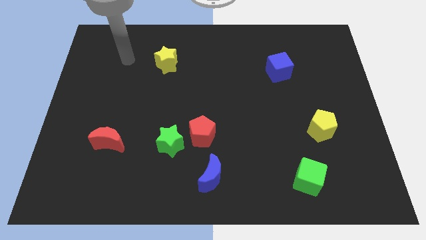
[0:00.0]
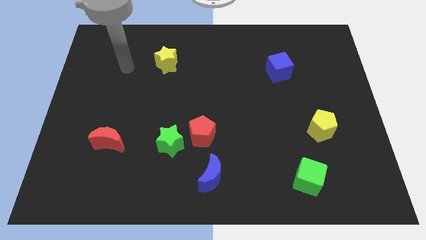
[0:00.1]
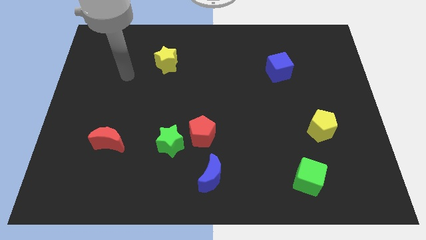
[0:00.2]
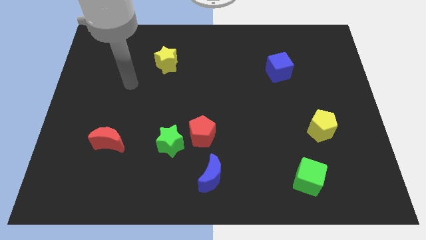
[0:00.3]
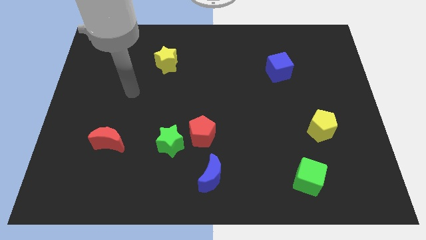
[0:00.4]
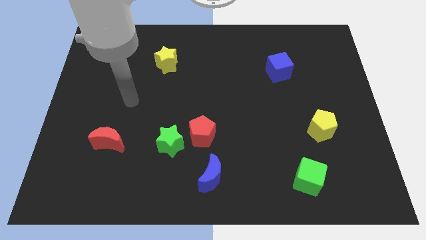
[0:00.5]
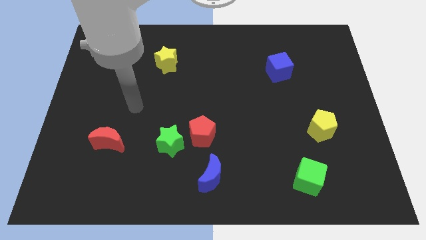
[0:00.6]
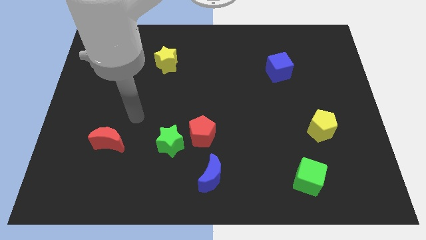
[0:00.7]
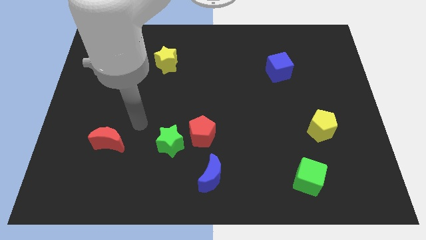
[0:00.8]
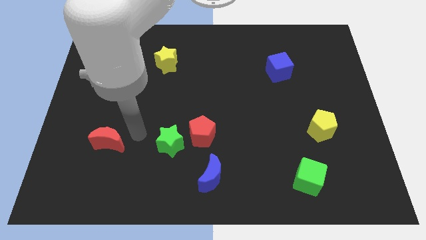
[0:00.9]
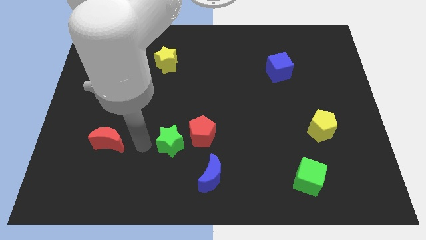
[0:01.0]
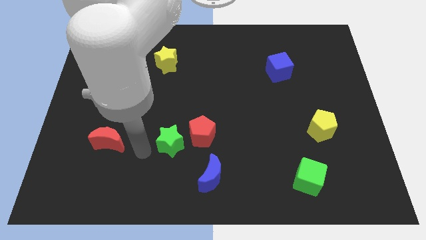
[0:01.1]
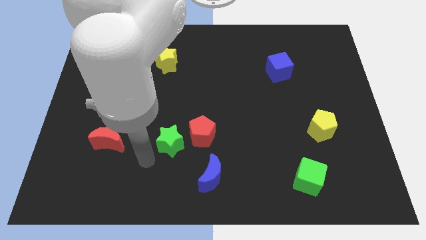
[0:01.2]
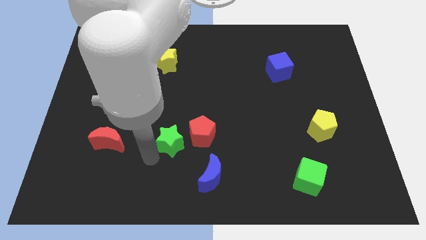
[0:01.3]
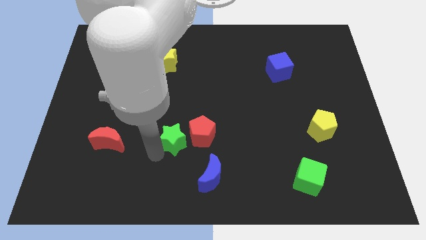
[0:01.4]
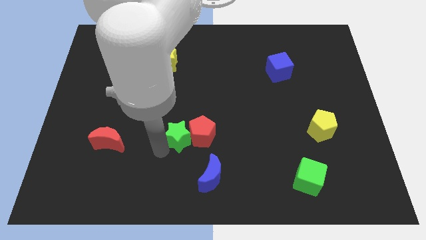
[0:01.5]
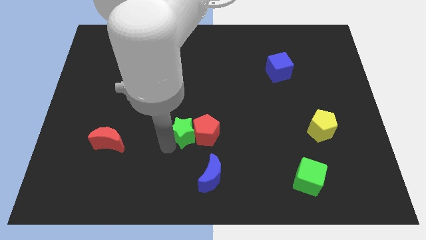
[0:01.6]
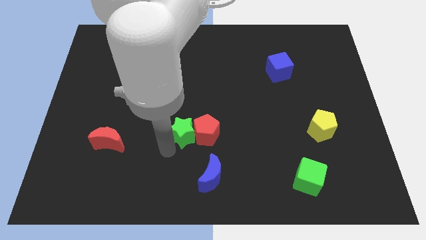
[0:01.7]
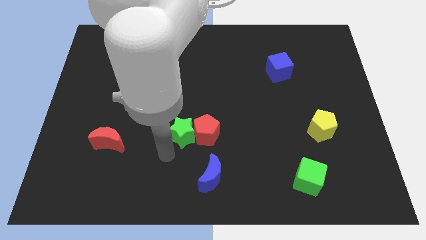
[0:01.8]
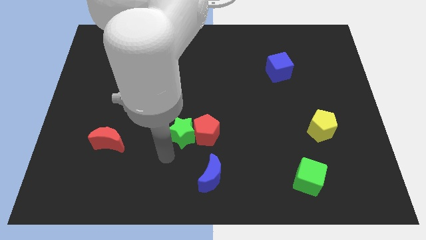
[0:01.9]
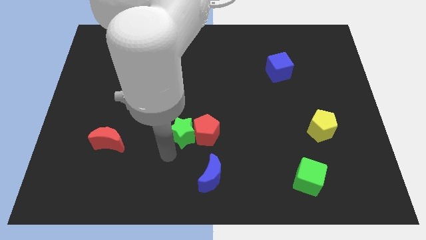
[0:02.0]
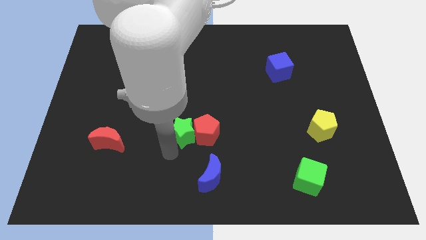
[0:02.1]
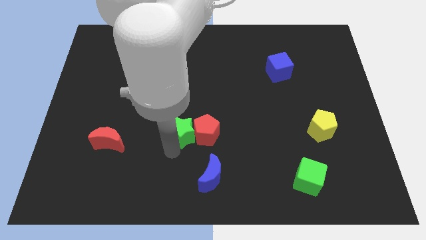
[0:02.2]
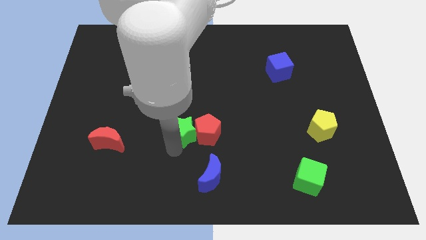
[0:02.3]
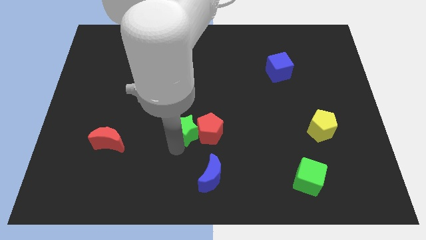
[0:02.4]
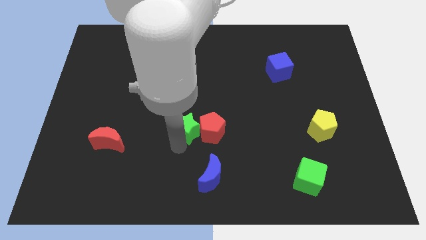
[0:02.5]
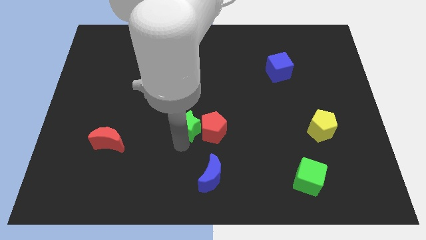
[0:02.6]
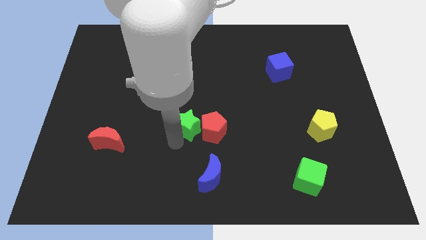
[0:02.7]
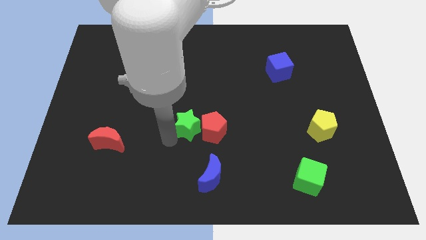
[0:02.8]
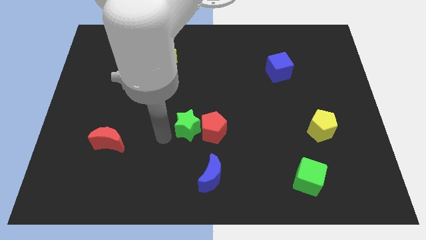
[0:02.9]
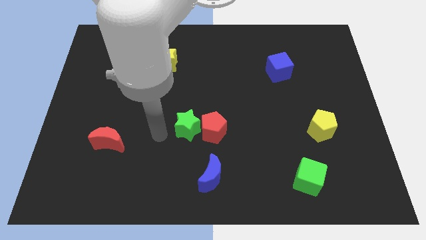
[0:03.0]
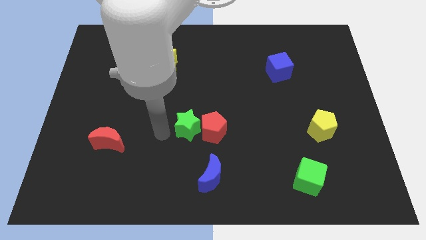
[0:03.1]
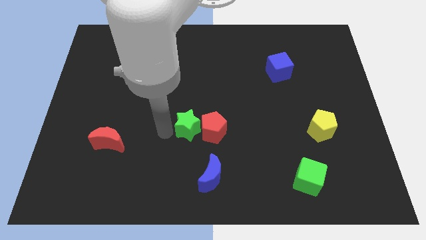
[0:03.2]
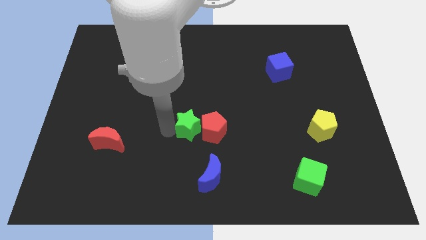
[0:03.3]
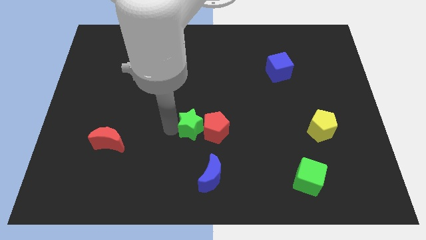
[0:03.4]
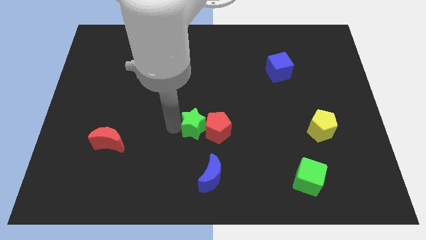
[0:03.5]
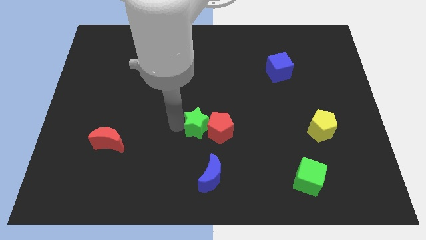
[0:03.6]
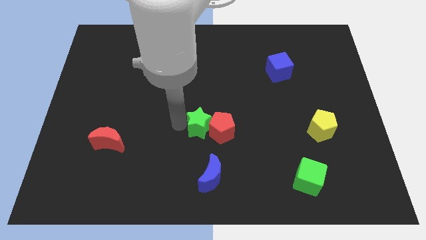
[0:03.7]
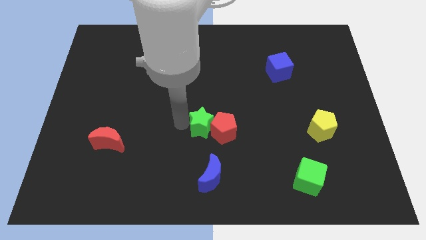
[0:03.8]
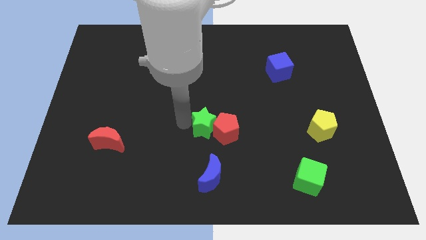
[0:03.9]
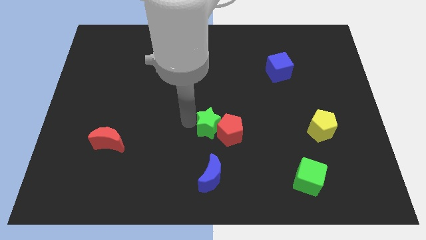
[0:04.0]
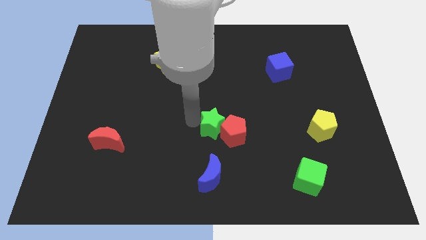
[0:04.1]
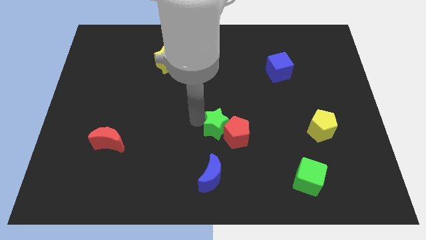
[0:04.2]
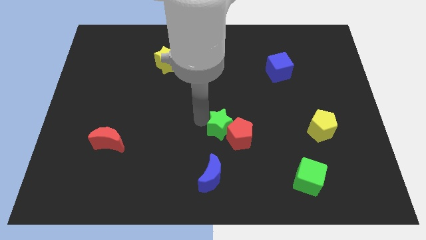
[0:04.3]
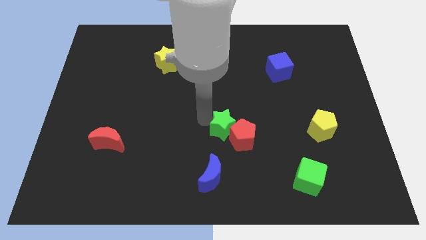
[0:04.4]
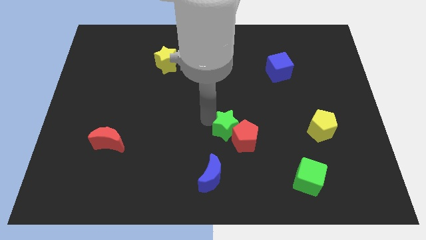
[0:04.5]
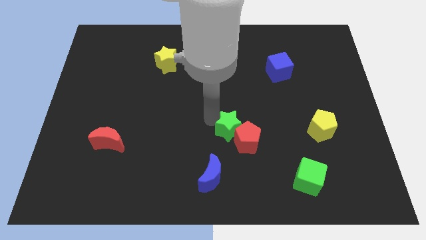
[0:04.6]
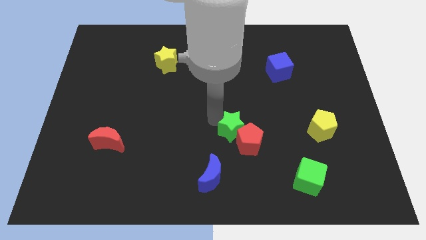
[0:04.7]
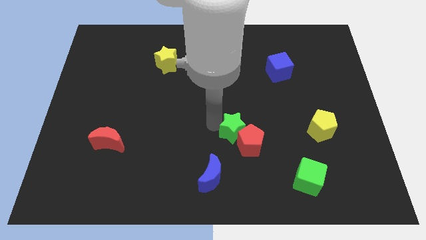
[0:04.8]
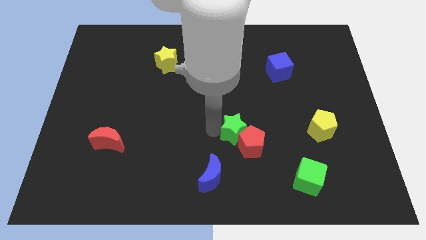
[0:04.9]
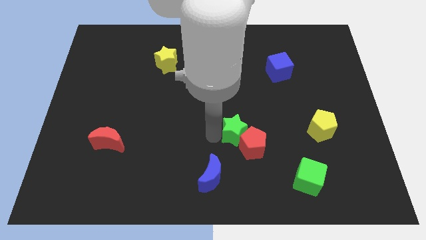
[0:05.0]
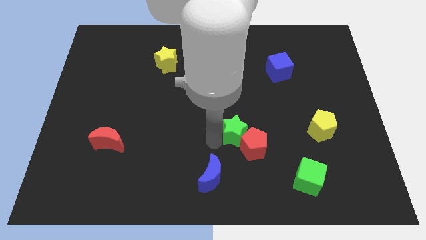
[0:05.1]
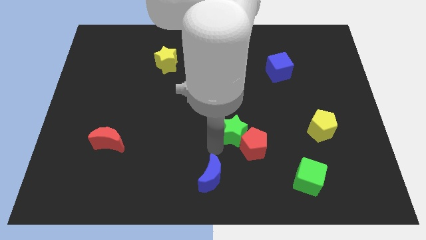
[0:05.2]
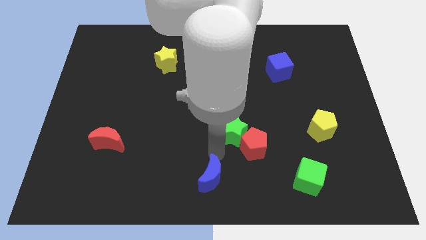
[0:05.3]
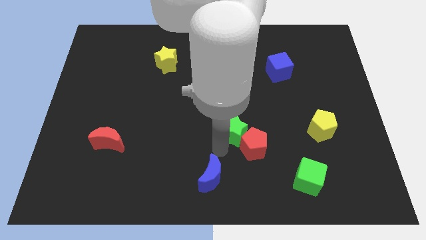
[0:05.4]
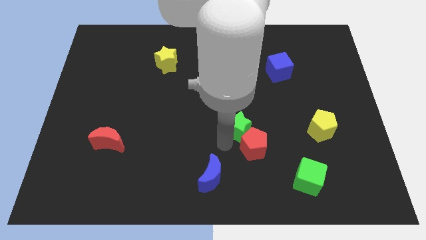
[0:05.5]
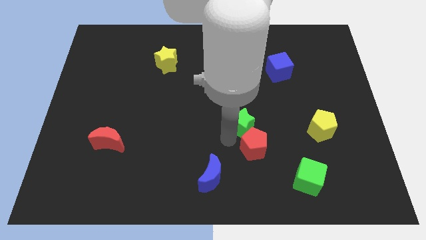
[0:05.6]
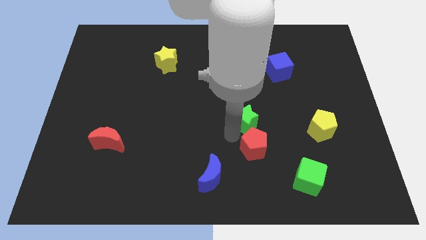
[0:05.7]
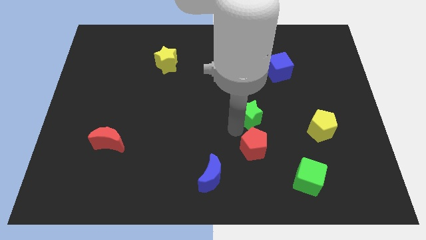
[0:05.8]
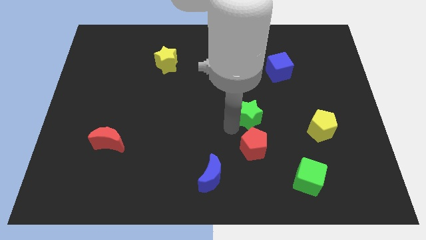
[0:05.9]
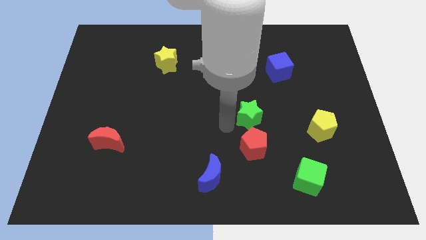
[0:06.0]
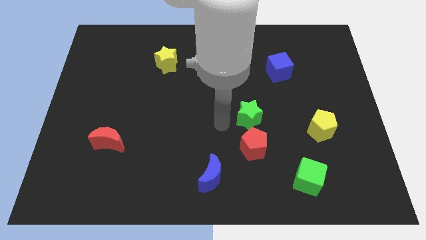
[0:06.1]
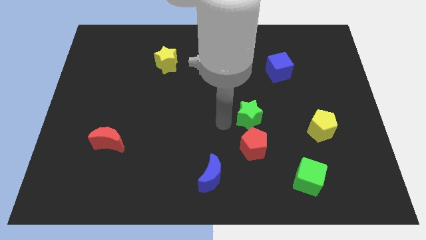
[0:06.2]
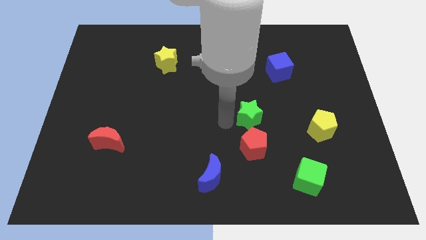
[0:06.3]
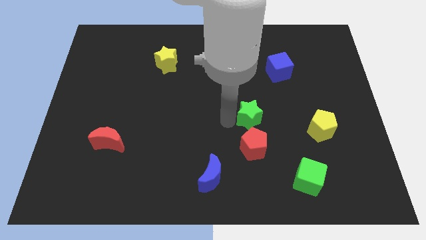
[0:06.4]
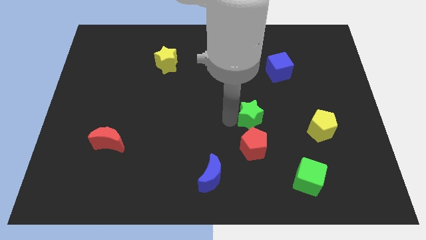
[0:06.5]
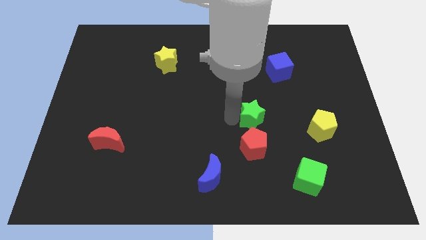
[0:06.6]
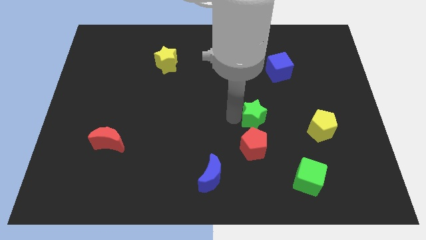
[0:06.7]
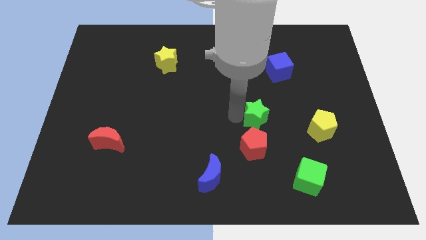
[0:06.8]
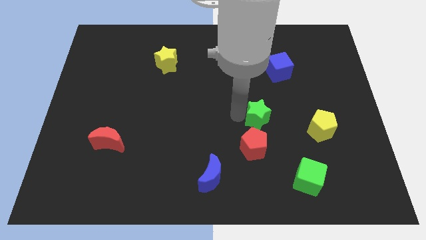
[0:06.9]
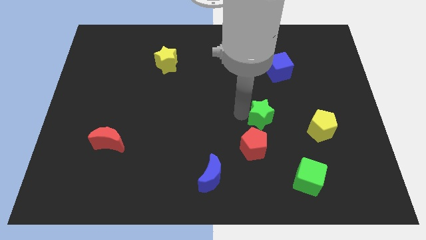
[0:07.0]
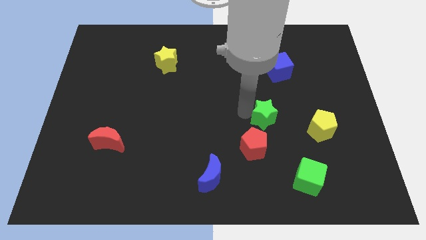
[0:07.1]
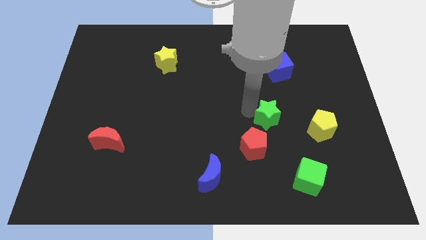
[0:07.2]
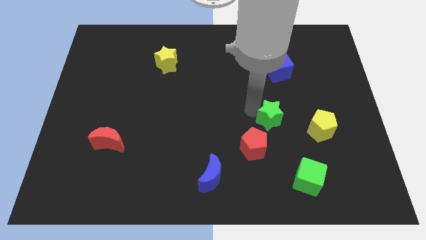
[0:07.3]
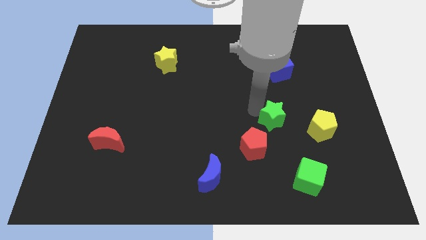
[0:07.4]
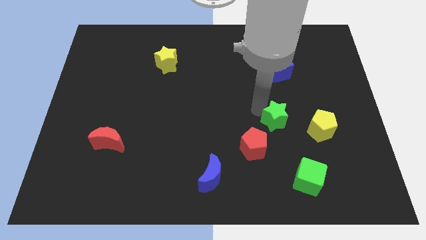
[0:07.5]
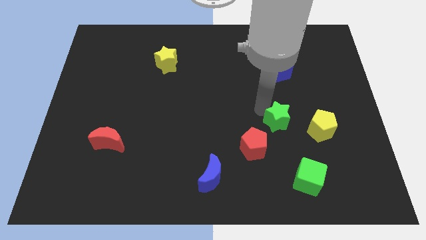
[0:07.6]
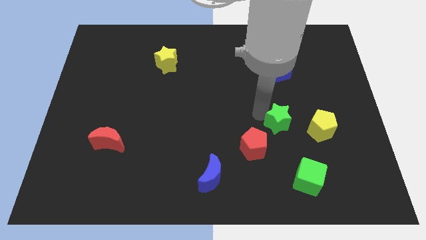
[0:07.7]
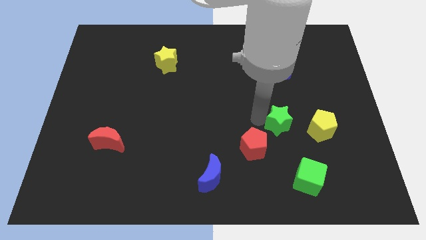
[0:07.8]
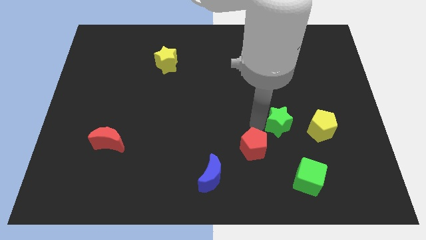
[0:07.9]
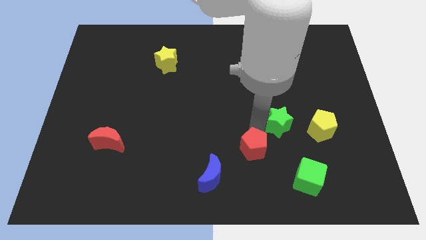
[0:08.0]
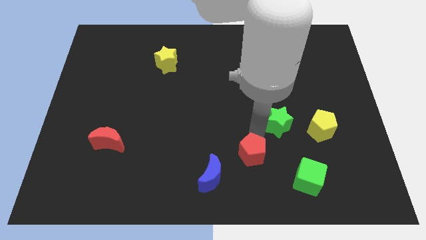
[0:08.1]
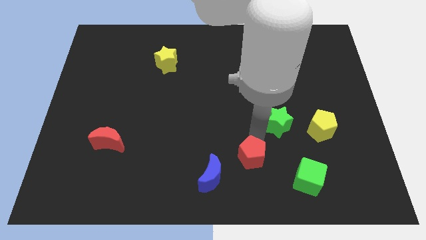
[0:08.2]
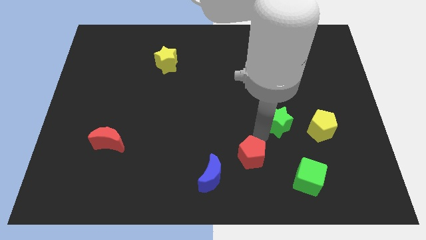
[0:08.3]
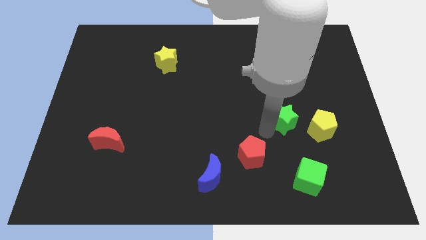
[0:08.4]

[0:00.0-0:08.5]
move the green star diagonally up and to the left of the yellow pentagon
